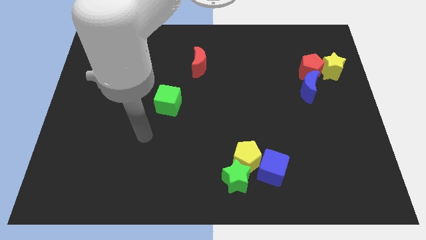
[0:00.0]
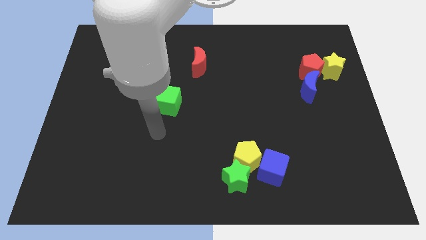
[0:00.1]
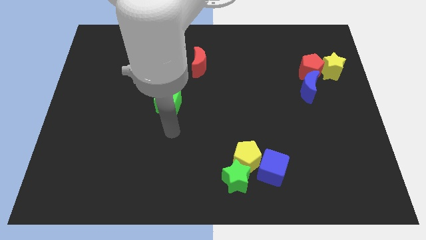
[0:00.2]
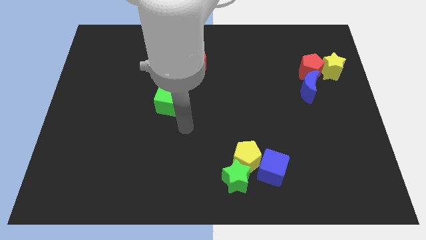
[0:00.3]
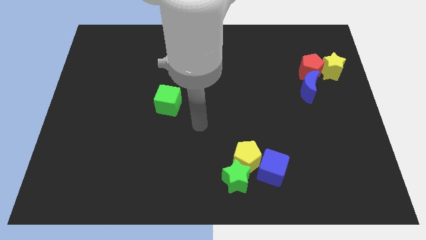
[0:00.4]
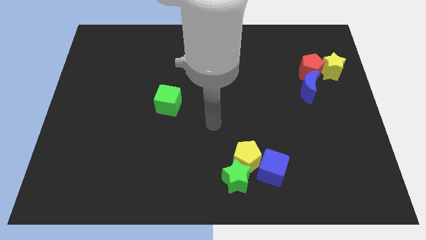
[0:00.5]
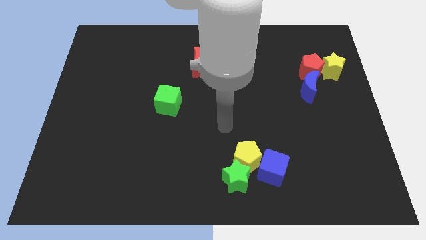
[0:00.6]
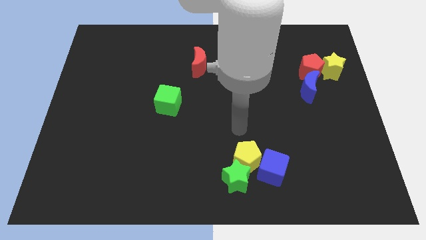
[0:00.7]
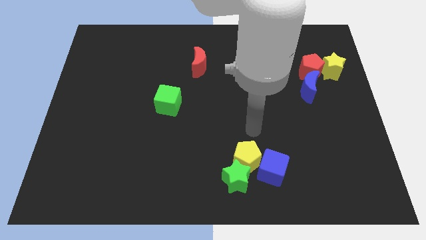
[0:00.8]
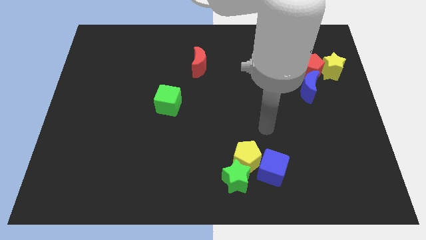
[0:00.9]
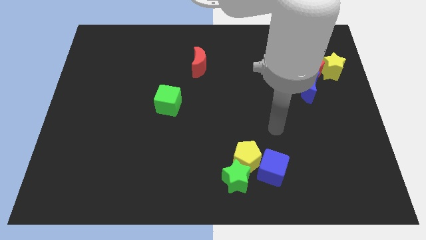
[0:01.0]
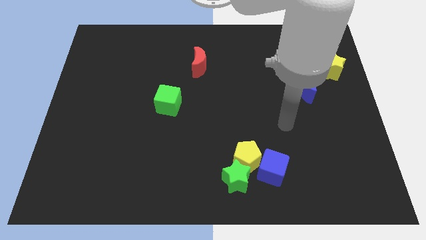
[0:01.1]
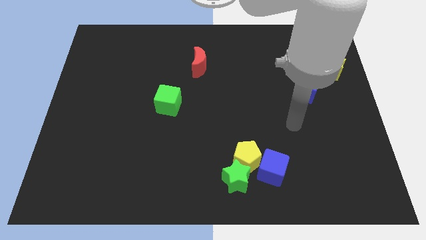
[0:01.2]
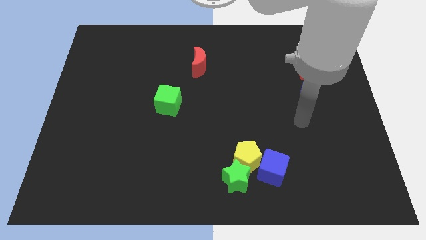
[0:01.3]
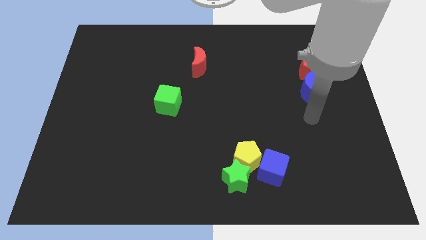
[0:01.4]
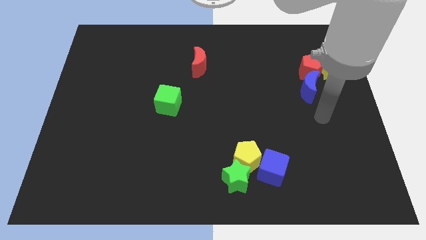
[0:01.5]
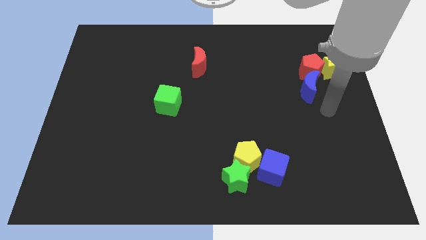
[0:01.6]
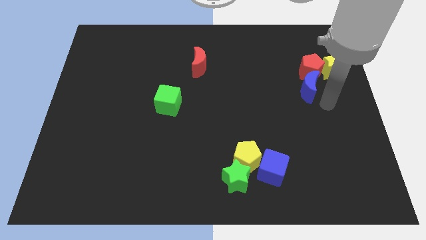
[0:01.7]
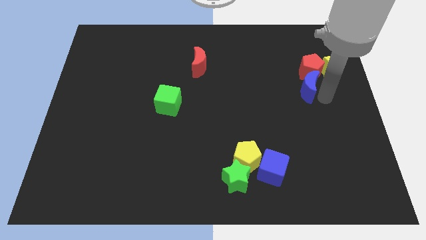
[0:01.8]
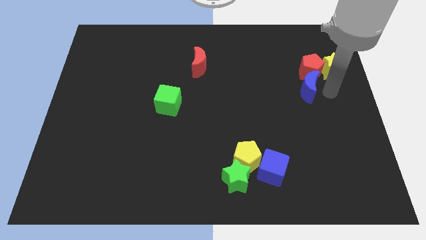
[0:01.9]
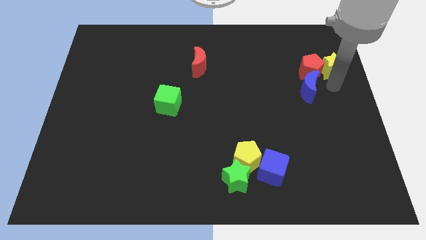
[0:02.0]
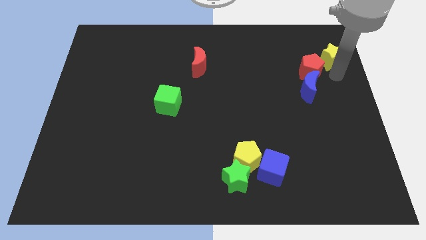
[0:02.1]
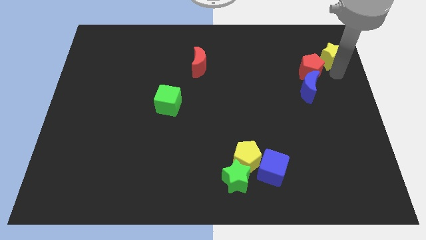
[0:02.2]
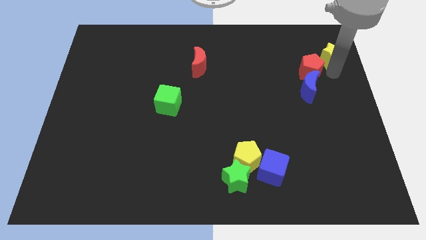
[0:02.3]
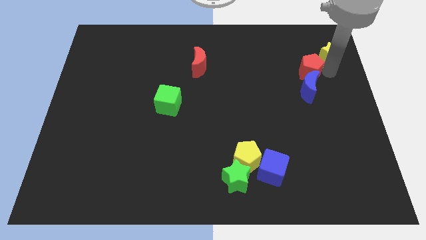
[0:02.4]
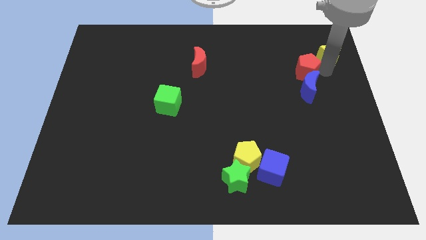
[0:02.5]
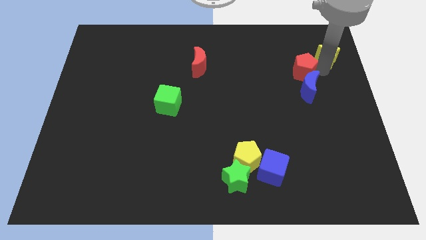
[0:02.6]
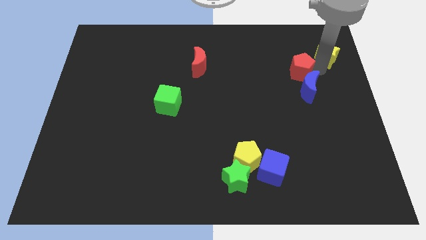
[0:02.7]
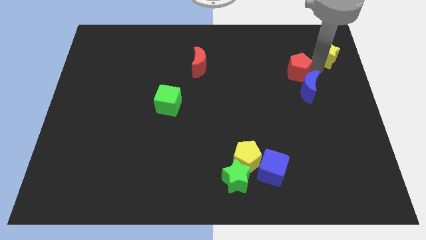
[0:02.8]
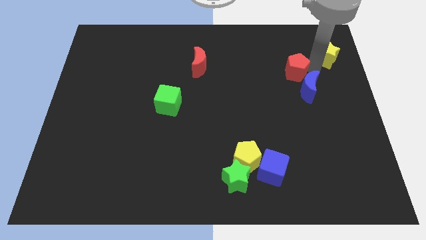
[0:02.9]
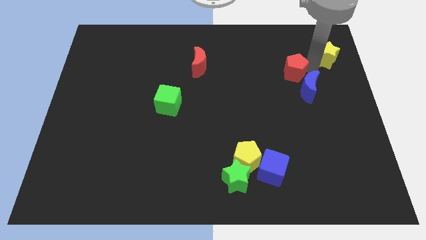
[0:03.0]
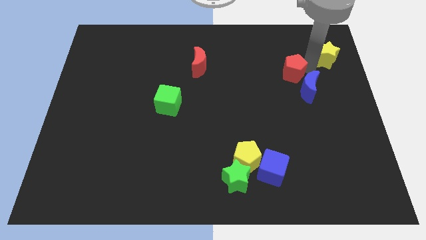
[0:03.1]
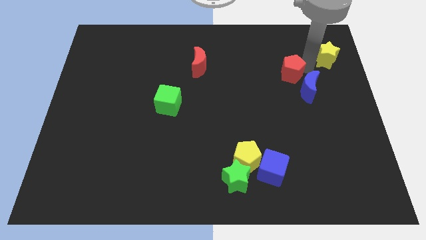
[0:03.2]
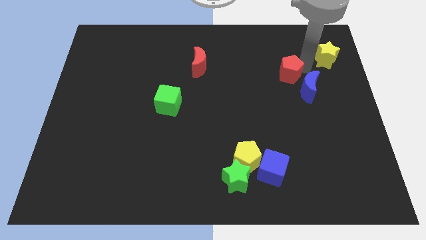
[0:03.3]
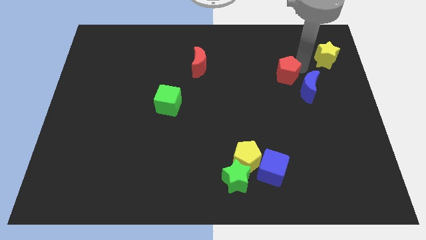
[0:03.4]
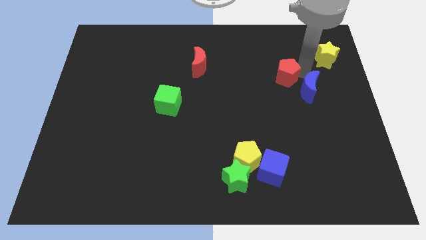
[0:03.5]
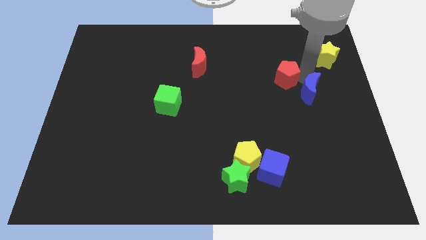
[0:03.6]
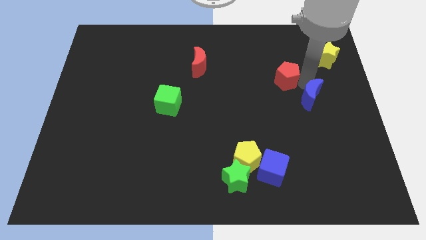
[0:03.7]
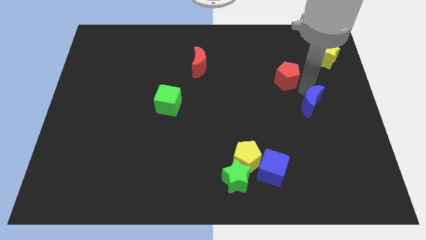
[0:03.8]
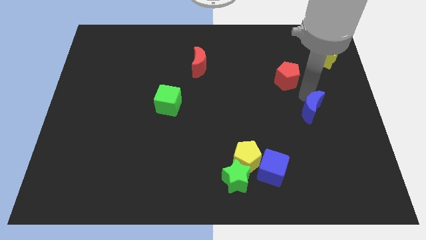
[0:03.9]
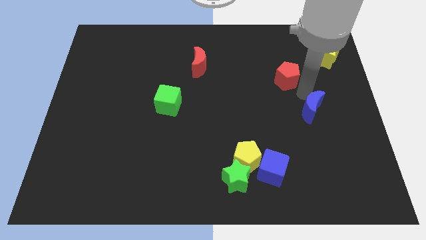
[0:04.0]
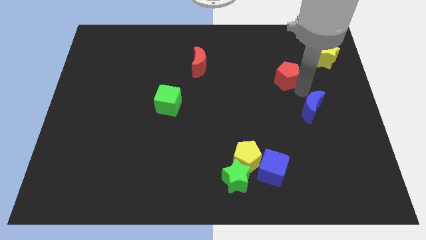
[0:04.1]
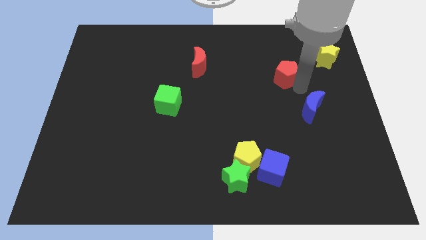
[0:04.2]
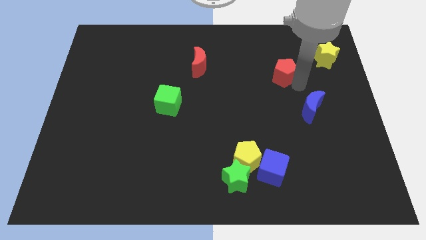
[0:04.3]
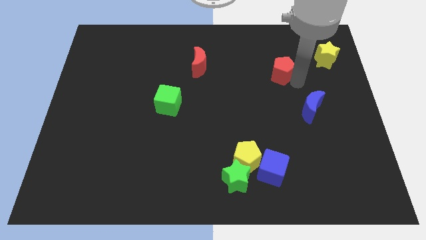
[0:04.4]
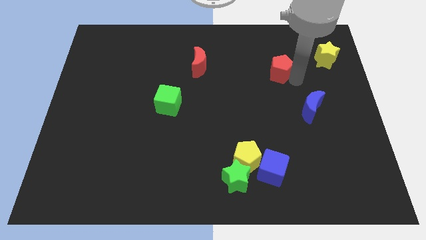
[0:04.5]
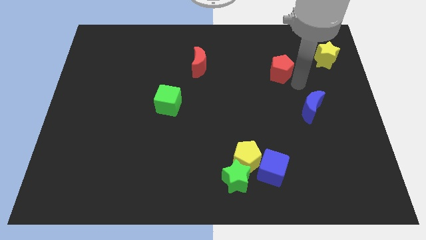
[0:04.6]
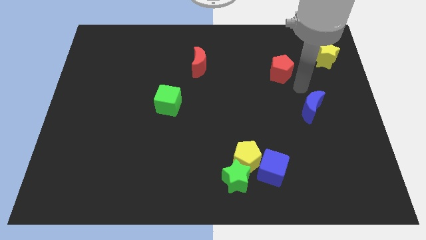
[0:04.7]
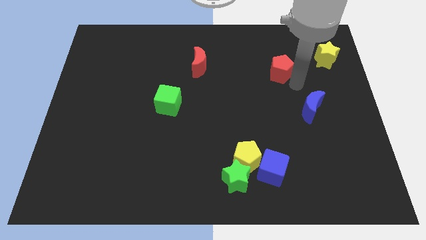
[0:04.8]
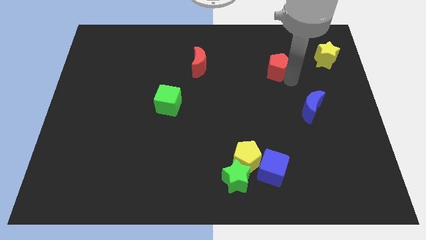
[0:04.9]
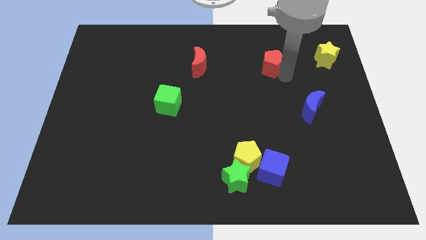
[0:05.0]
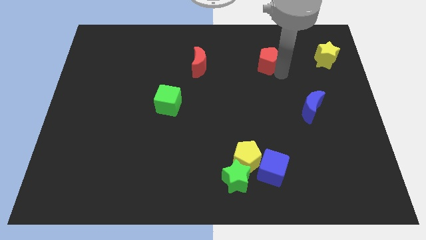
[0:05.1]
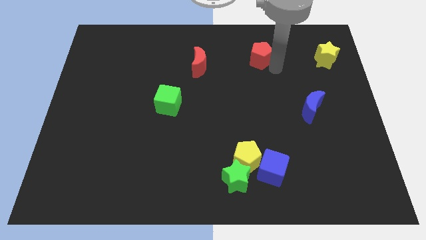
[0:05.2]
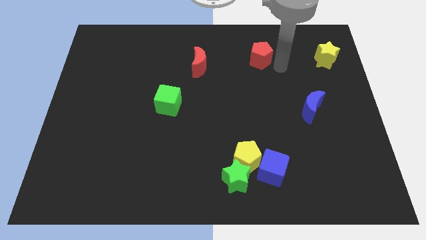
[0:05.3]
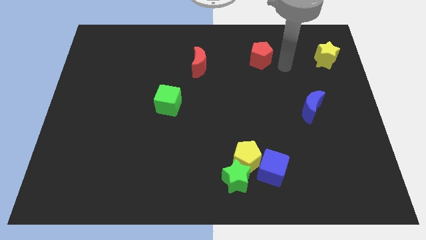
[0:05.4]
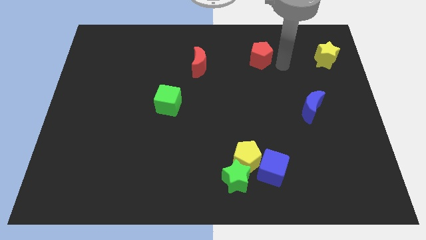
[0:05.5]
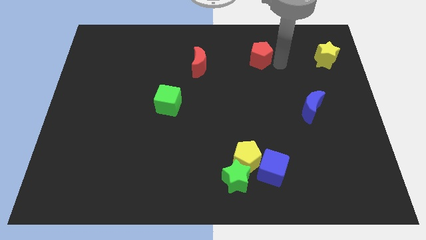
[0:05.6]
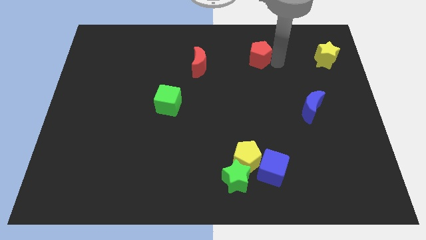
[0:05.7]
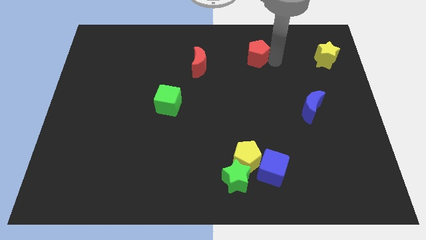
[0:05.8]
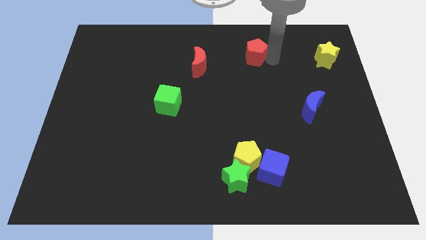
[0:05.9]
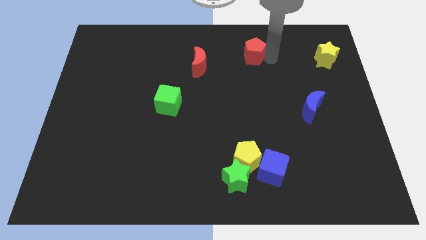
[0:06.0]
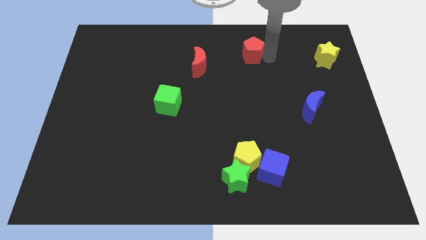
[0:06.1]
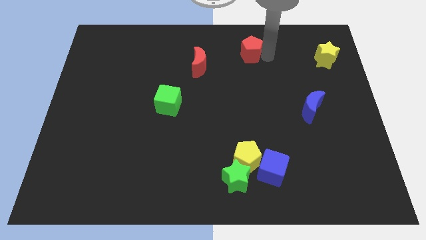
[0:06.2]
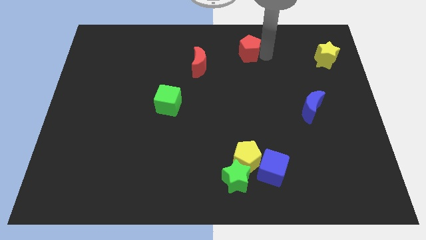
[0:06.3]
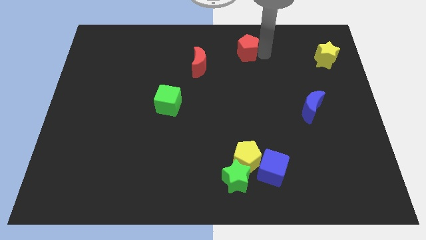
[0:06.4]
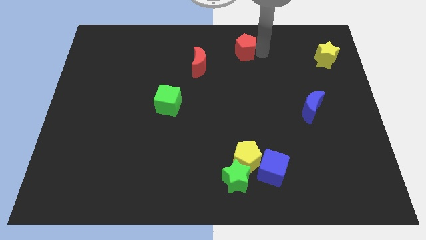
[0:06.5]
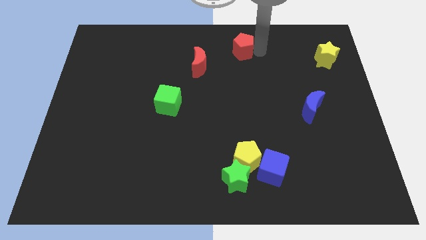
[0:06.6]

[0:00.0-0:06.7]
push the red pentagon to the towards your base
